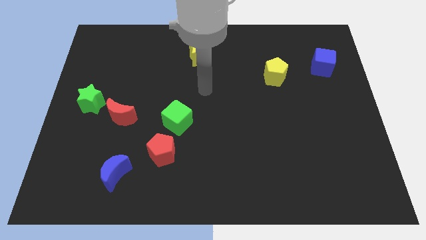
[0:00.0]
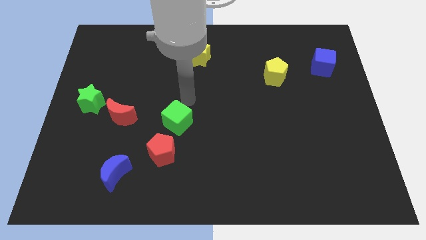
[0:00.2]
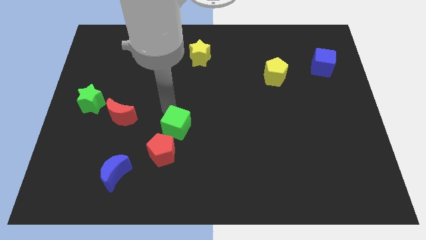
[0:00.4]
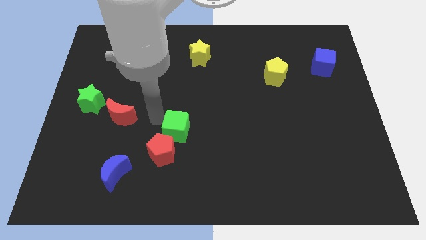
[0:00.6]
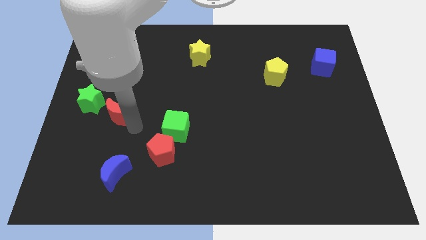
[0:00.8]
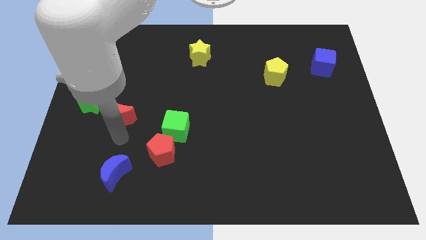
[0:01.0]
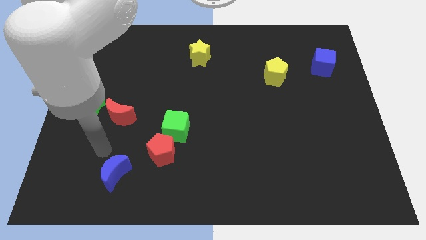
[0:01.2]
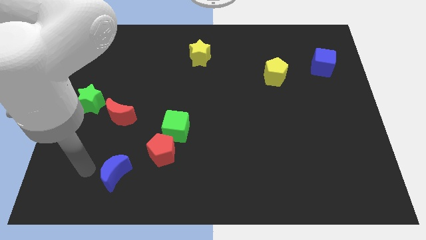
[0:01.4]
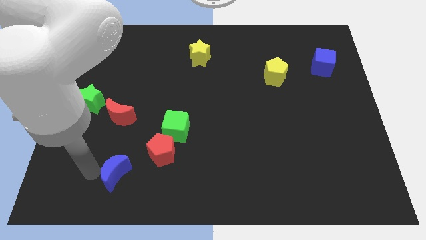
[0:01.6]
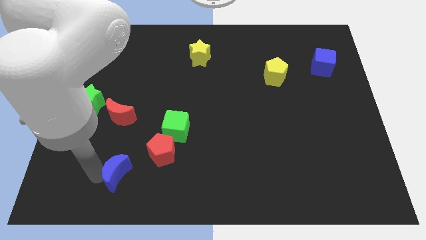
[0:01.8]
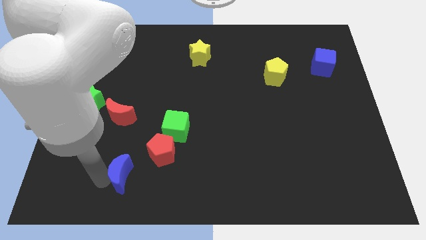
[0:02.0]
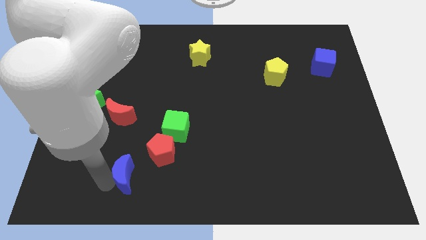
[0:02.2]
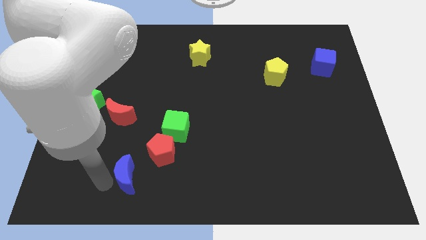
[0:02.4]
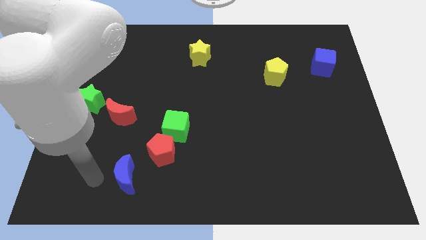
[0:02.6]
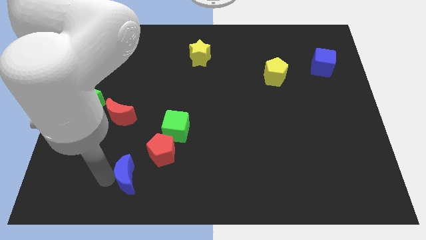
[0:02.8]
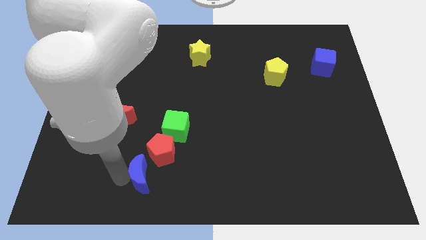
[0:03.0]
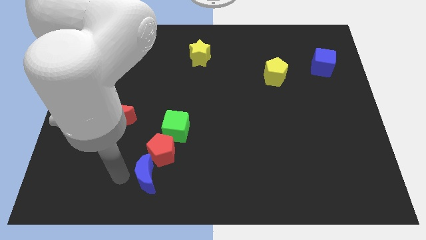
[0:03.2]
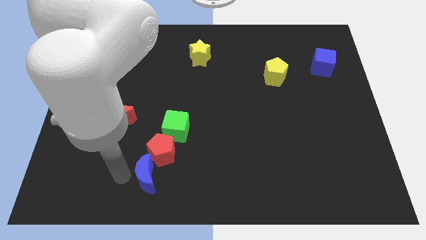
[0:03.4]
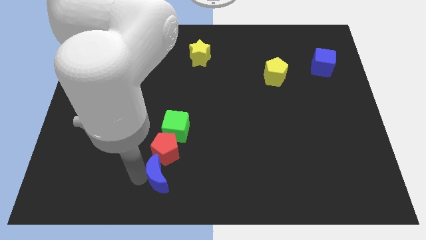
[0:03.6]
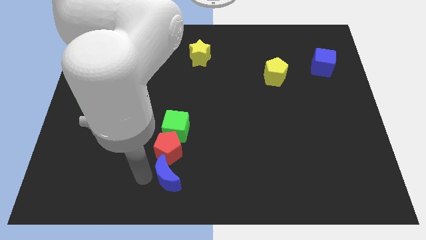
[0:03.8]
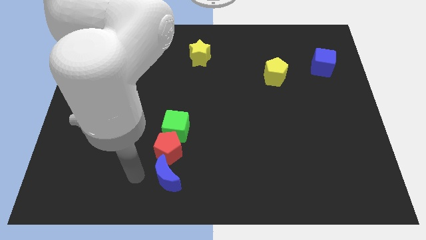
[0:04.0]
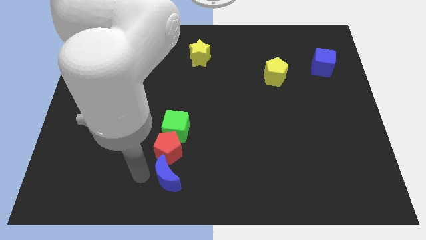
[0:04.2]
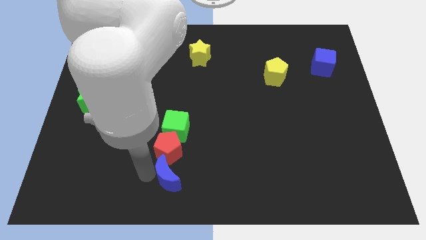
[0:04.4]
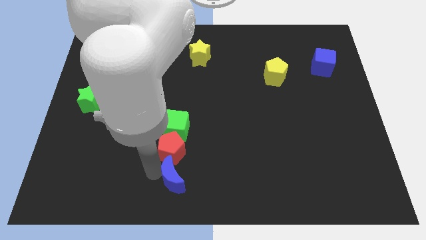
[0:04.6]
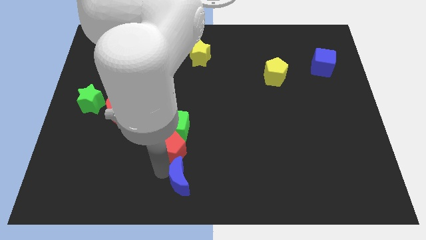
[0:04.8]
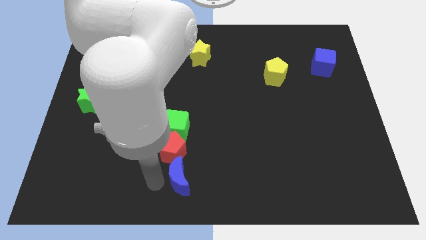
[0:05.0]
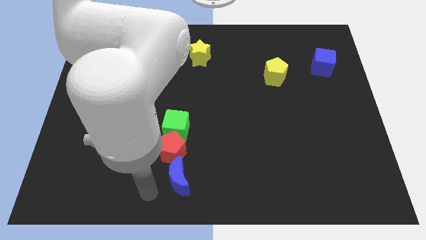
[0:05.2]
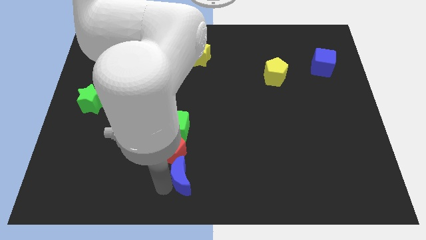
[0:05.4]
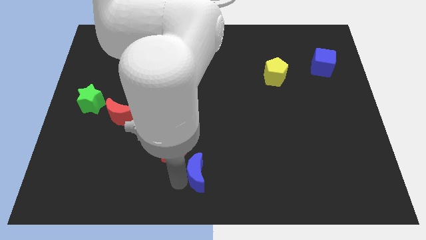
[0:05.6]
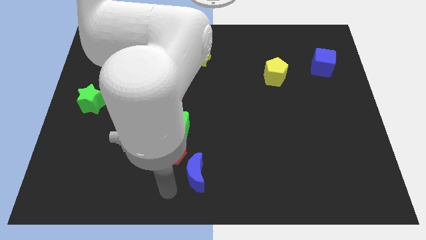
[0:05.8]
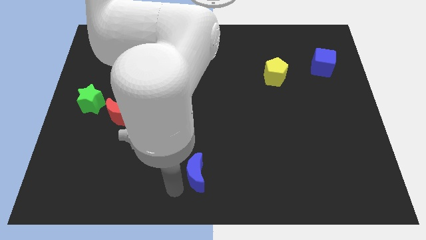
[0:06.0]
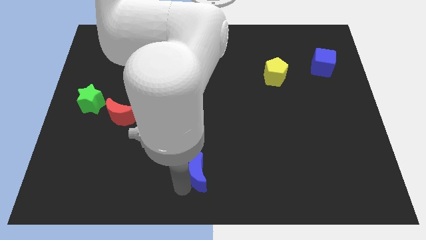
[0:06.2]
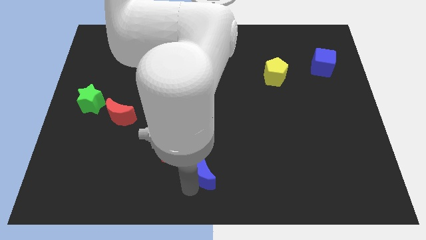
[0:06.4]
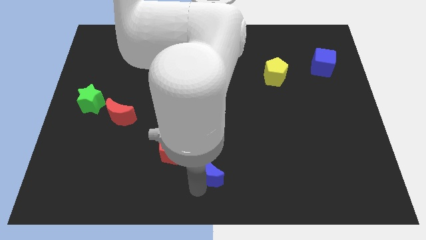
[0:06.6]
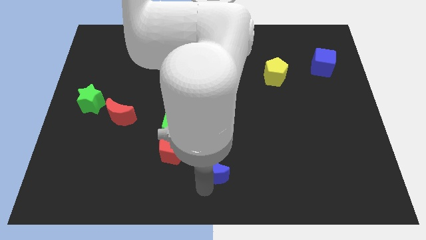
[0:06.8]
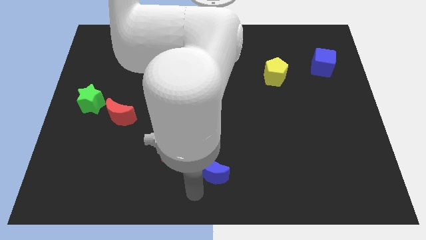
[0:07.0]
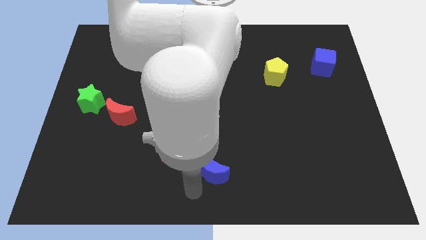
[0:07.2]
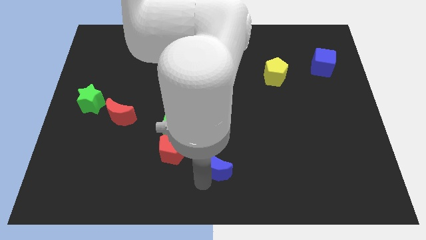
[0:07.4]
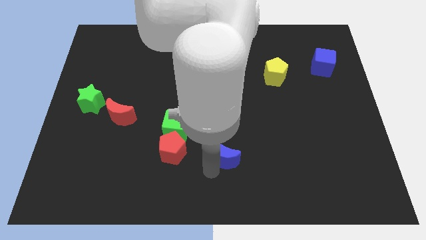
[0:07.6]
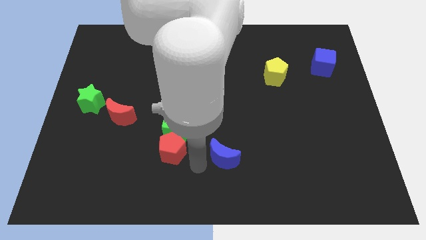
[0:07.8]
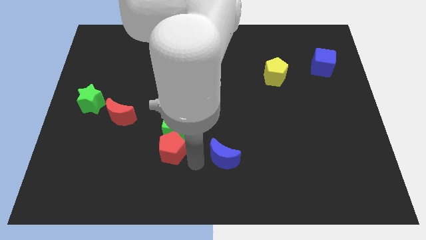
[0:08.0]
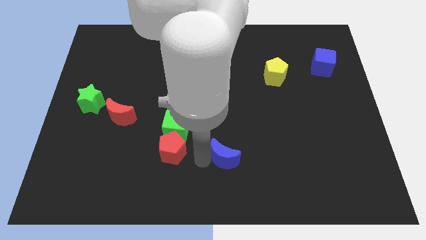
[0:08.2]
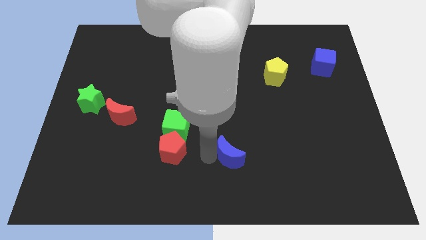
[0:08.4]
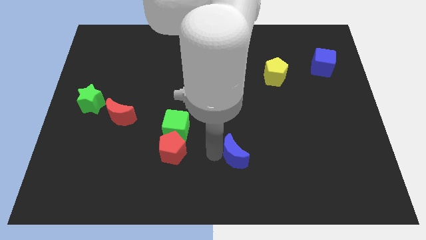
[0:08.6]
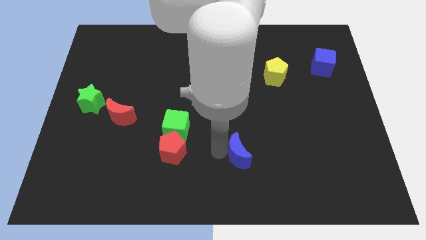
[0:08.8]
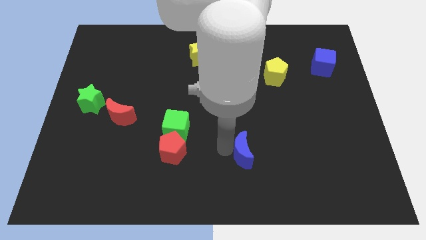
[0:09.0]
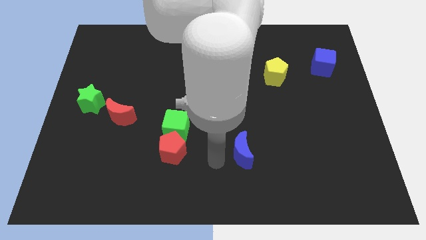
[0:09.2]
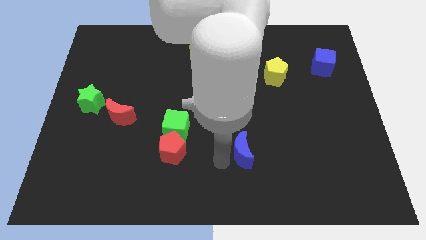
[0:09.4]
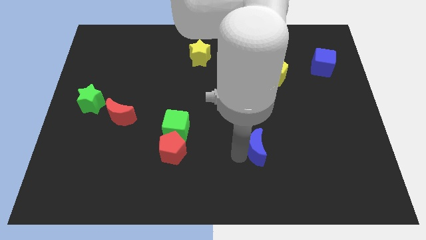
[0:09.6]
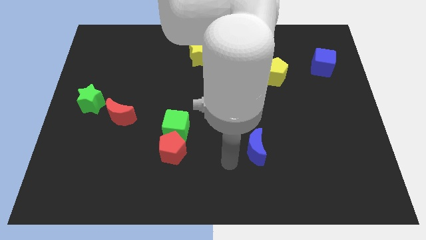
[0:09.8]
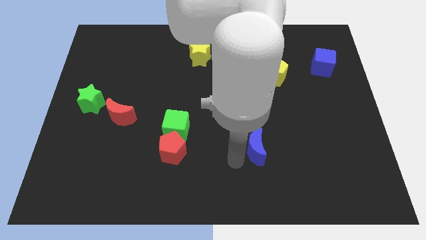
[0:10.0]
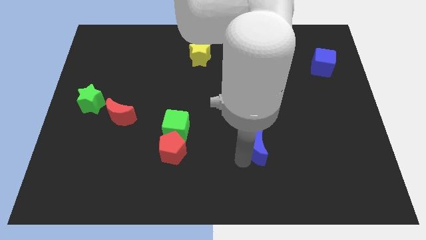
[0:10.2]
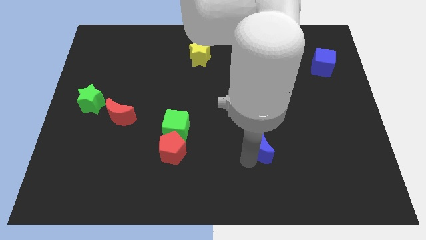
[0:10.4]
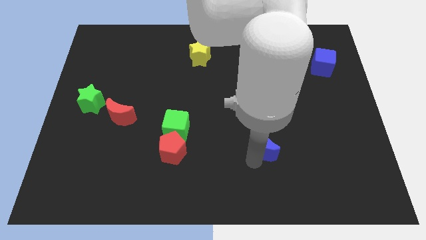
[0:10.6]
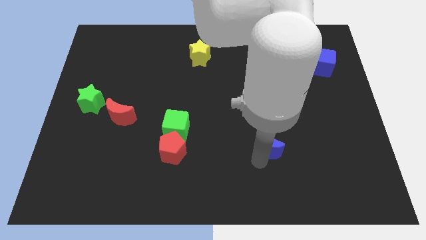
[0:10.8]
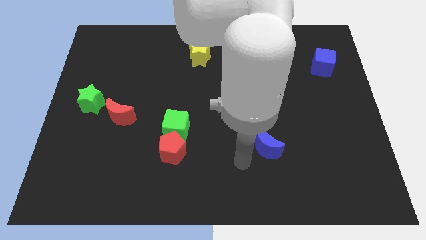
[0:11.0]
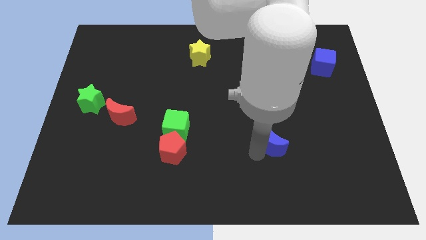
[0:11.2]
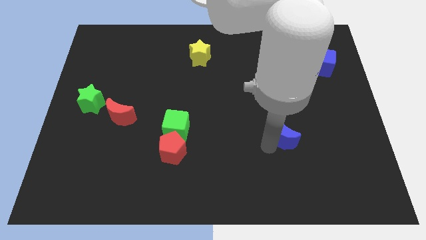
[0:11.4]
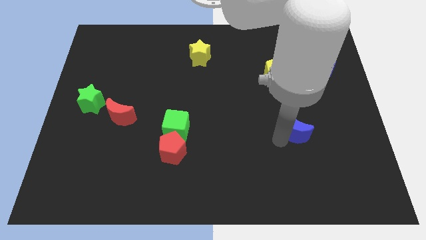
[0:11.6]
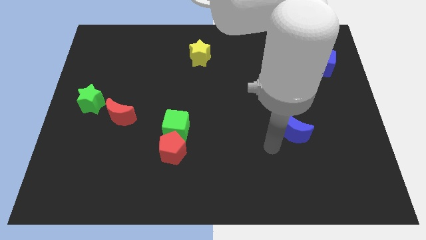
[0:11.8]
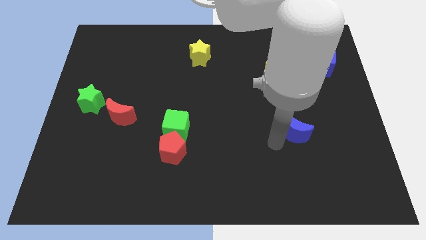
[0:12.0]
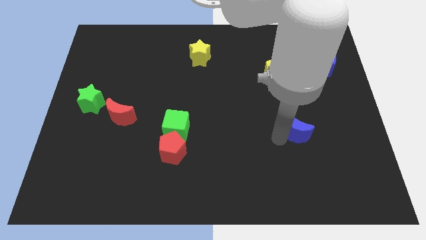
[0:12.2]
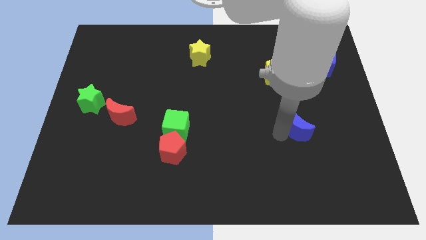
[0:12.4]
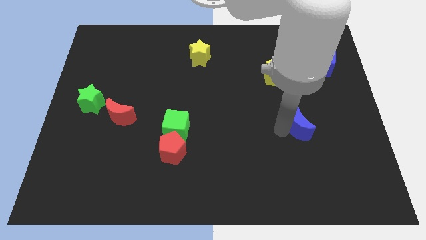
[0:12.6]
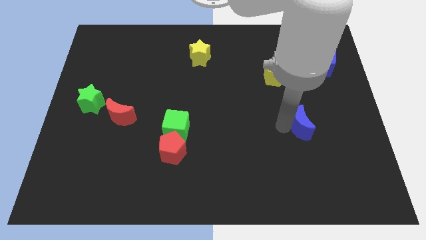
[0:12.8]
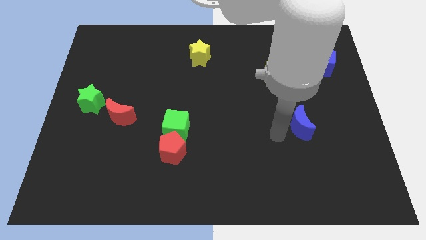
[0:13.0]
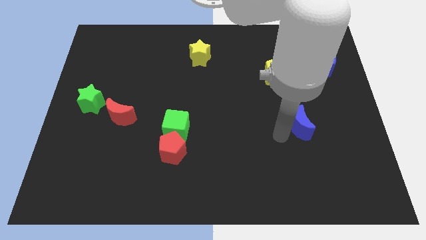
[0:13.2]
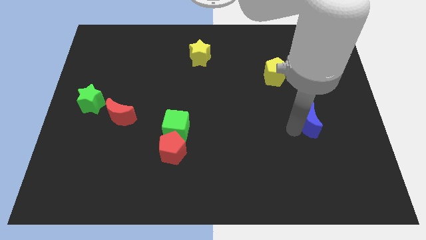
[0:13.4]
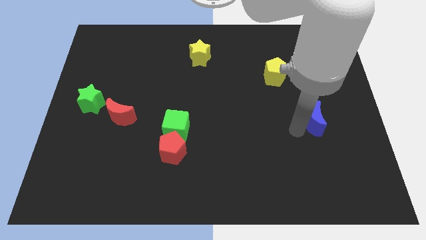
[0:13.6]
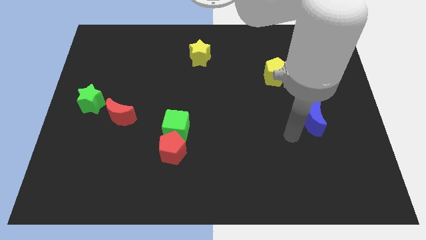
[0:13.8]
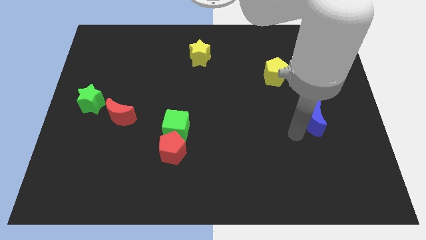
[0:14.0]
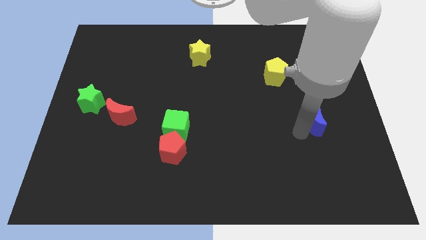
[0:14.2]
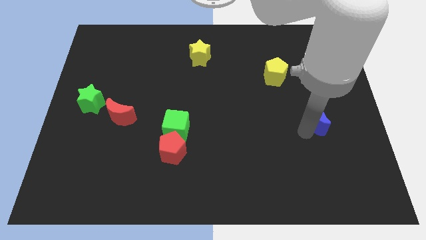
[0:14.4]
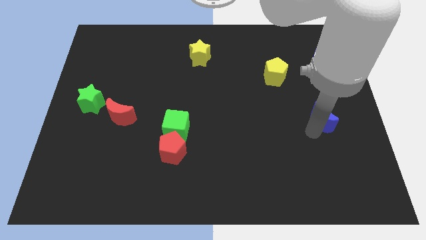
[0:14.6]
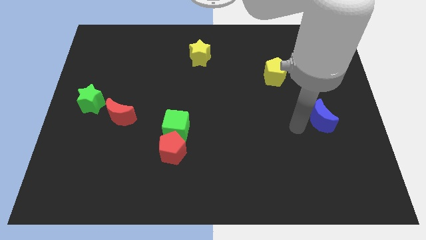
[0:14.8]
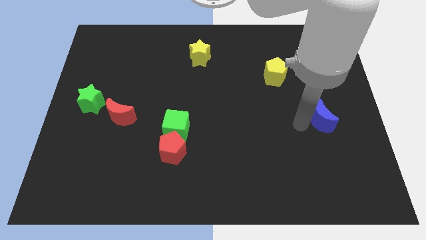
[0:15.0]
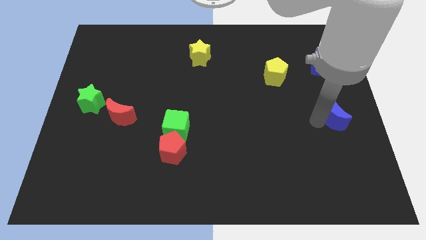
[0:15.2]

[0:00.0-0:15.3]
move the blue moon to the right side
